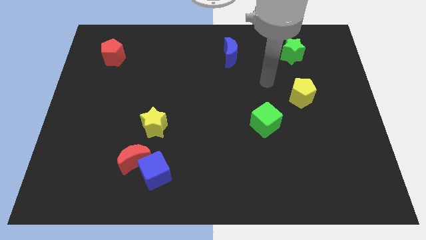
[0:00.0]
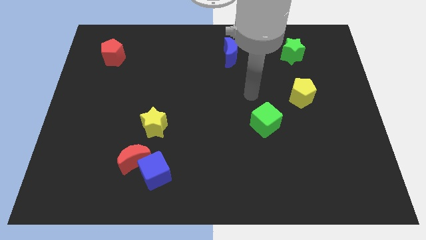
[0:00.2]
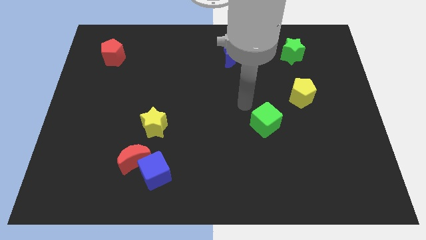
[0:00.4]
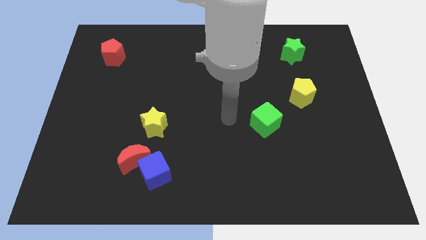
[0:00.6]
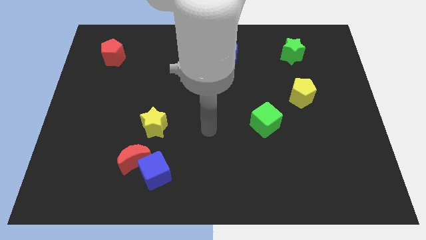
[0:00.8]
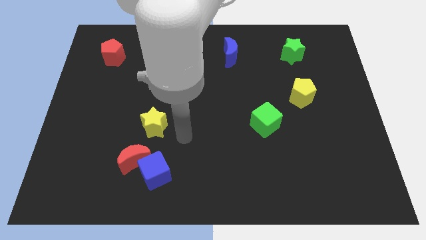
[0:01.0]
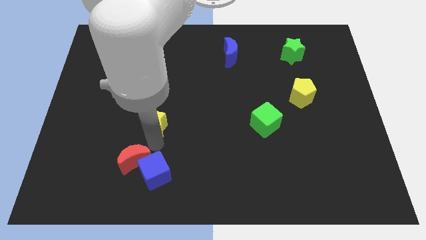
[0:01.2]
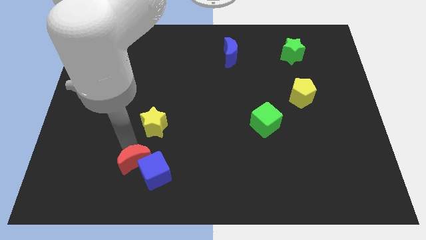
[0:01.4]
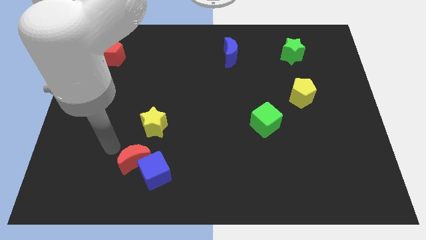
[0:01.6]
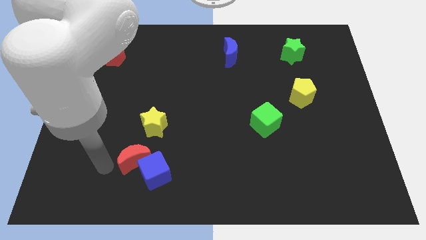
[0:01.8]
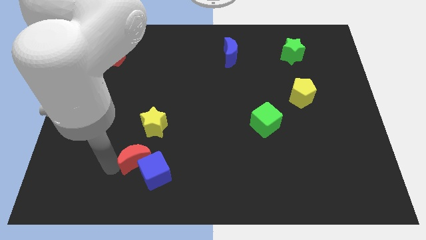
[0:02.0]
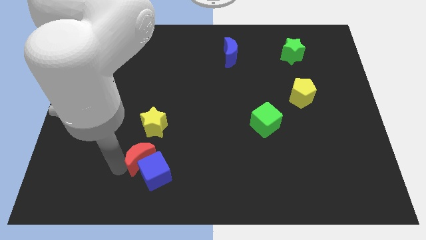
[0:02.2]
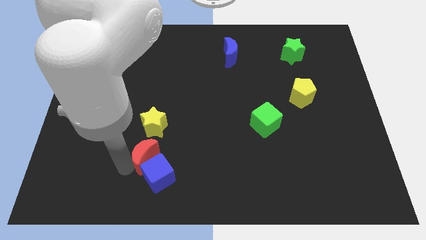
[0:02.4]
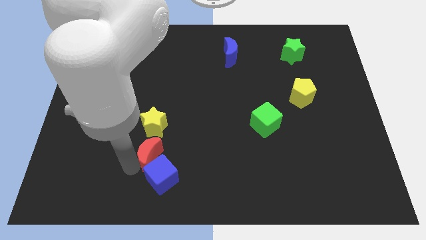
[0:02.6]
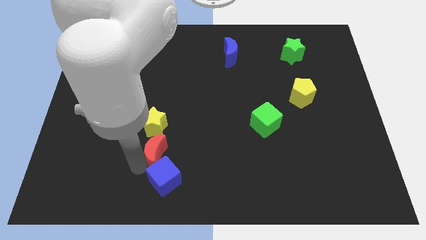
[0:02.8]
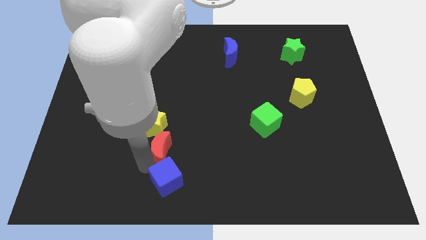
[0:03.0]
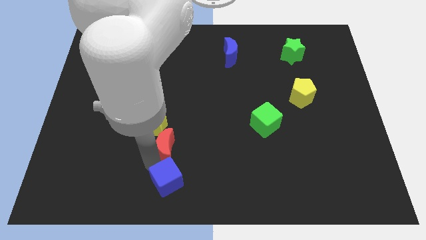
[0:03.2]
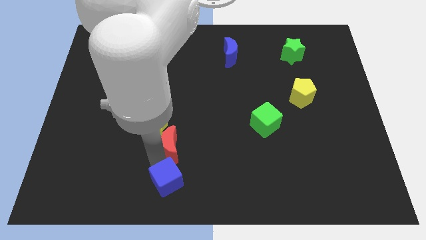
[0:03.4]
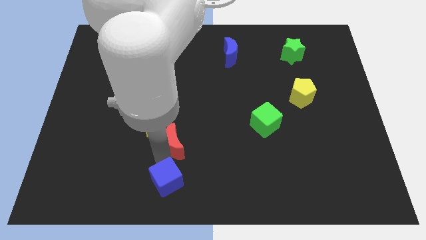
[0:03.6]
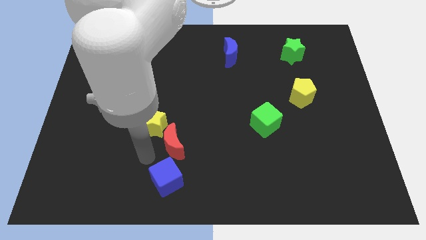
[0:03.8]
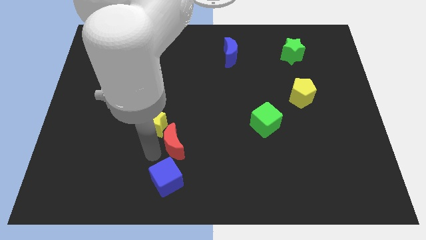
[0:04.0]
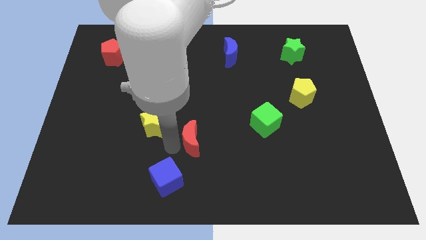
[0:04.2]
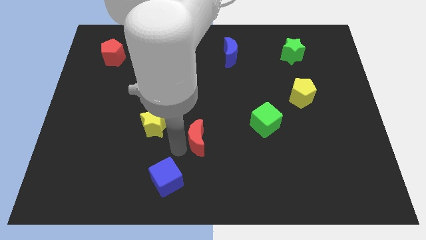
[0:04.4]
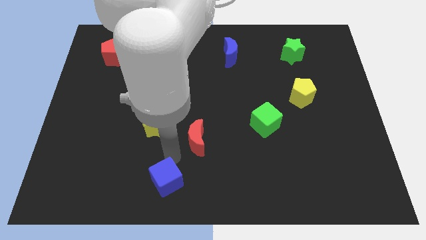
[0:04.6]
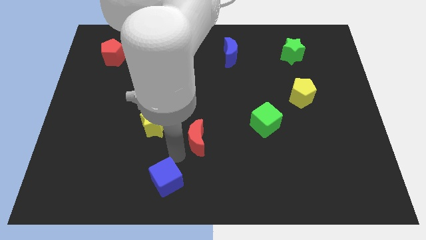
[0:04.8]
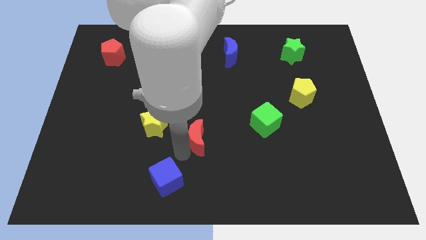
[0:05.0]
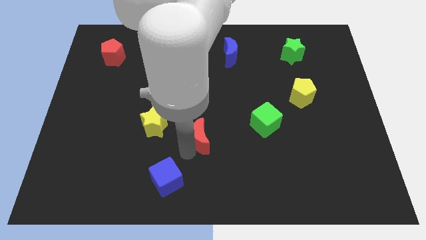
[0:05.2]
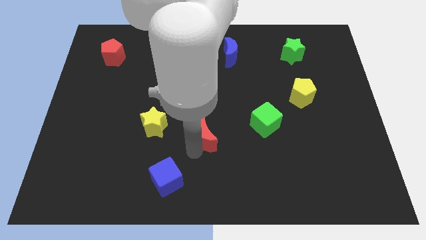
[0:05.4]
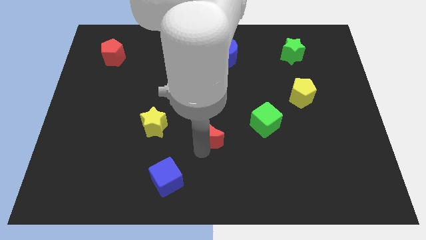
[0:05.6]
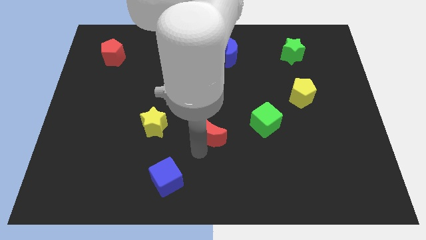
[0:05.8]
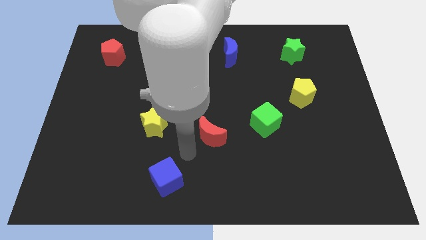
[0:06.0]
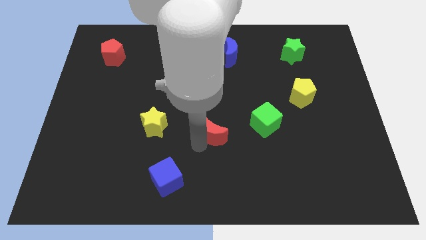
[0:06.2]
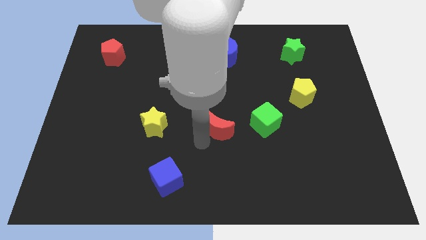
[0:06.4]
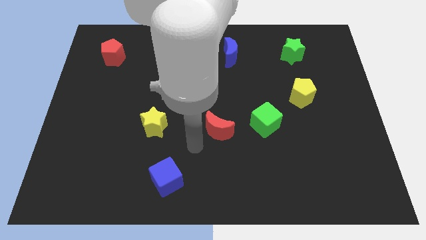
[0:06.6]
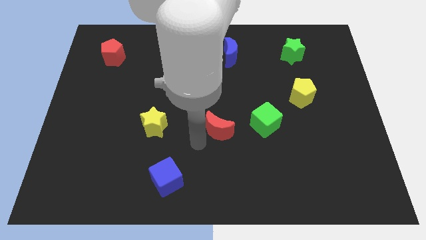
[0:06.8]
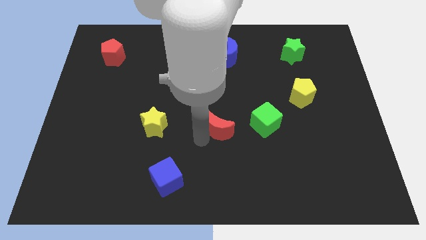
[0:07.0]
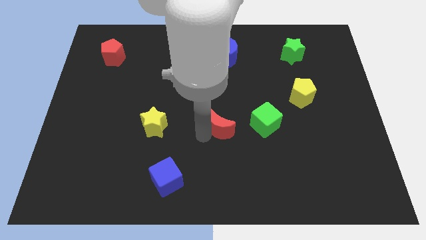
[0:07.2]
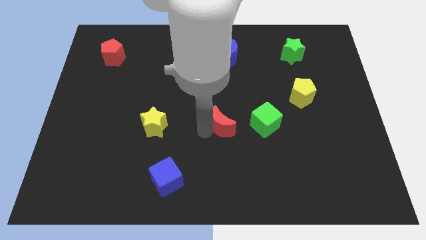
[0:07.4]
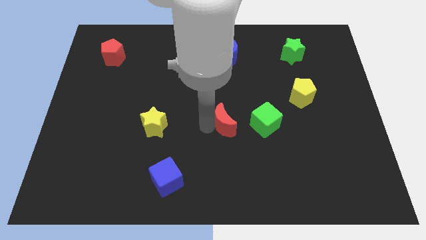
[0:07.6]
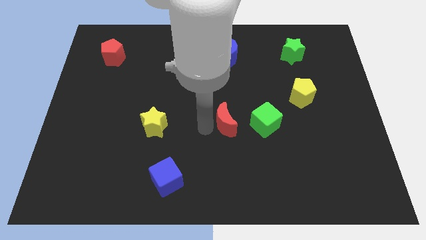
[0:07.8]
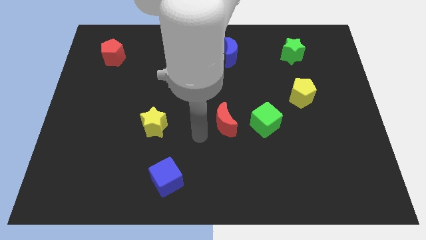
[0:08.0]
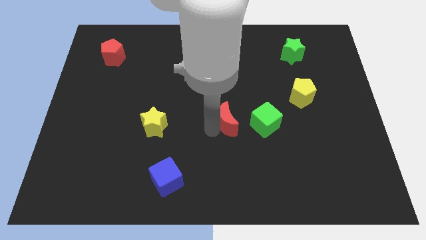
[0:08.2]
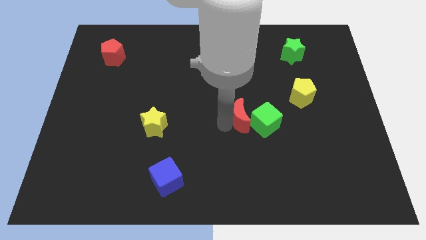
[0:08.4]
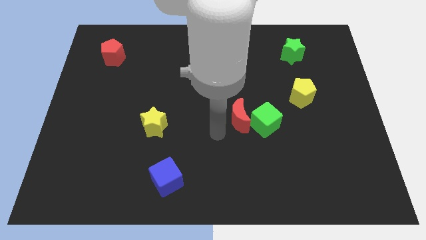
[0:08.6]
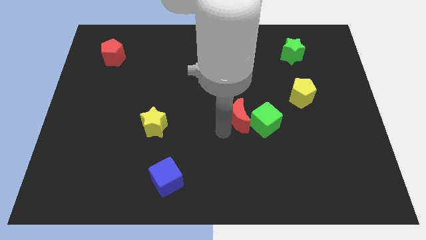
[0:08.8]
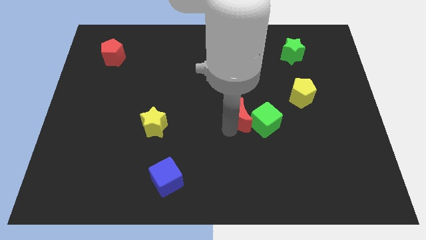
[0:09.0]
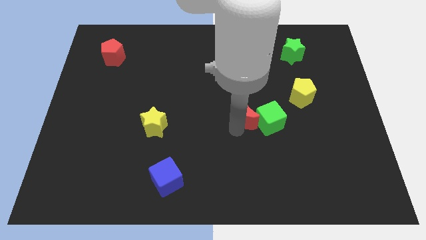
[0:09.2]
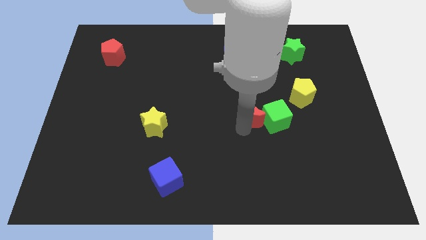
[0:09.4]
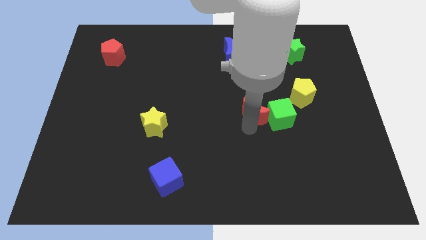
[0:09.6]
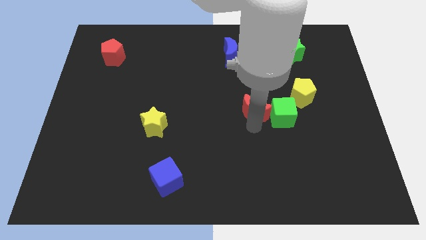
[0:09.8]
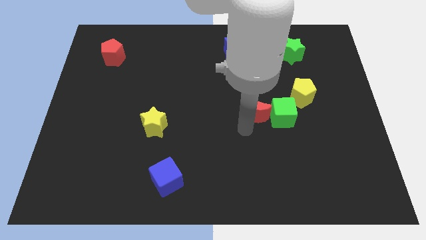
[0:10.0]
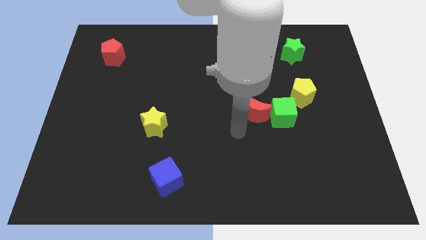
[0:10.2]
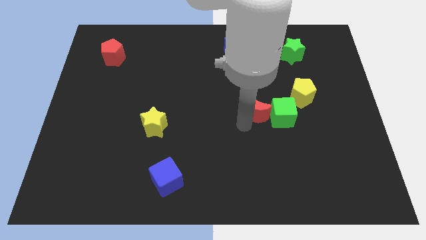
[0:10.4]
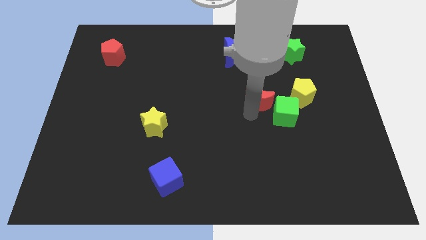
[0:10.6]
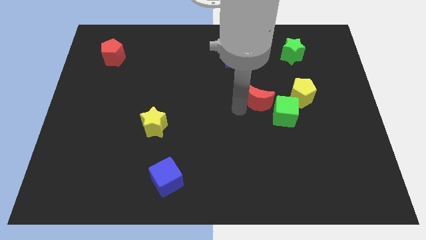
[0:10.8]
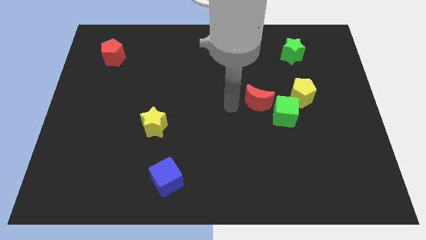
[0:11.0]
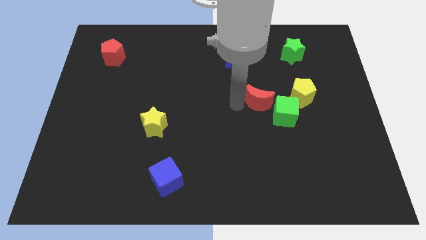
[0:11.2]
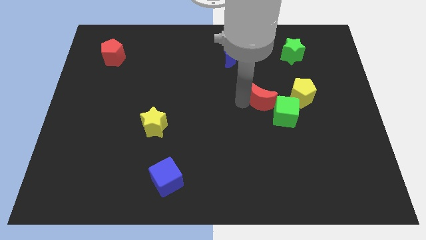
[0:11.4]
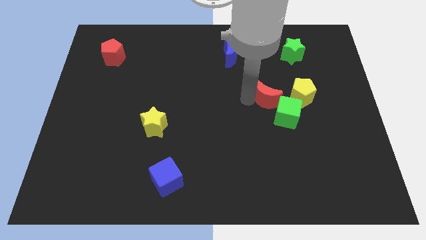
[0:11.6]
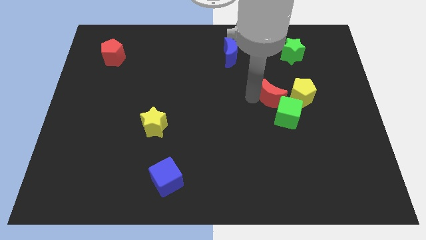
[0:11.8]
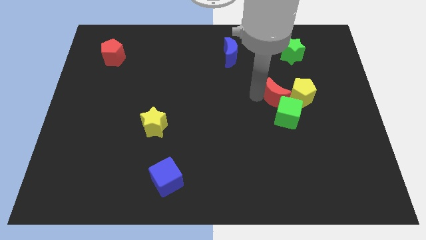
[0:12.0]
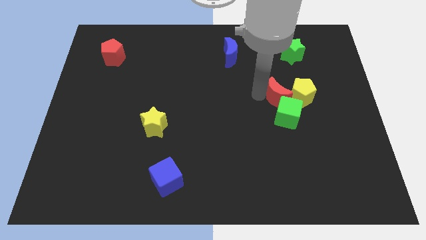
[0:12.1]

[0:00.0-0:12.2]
put the red moon to the yellow pentagon

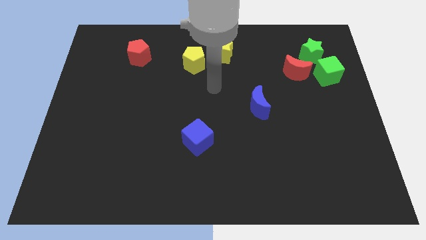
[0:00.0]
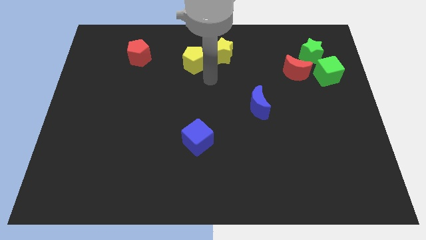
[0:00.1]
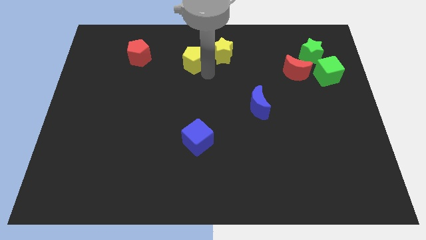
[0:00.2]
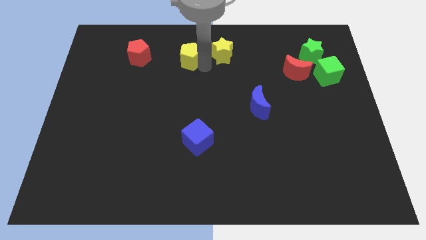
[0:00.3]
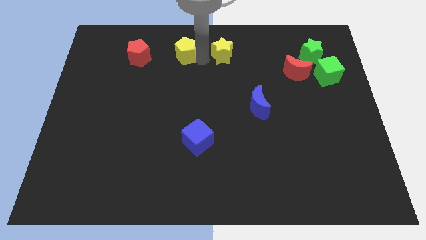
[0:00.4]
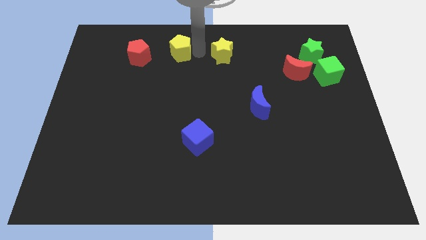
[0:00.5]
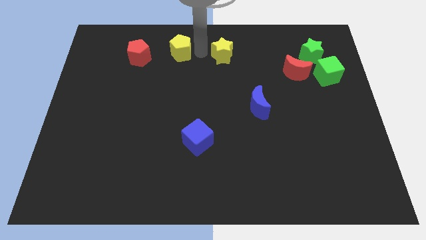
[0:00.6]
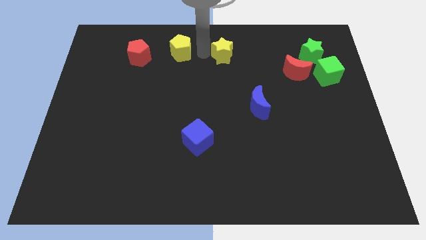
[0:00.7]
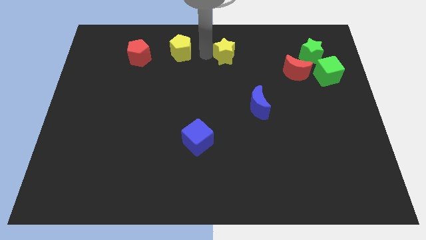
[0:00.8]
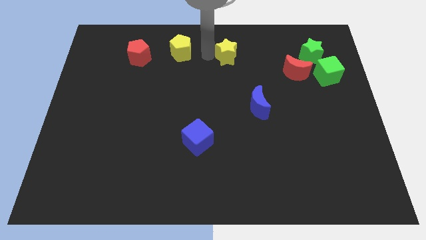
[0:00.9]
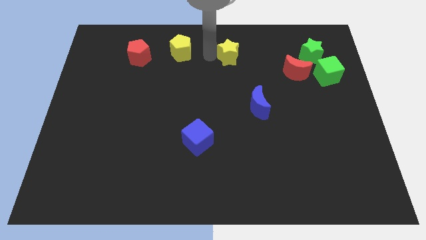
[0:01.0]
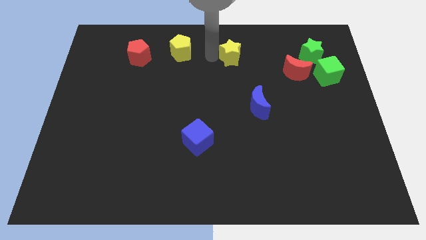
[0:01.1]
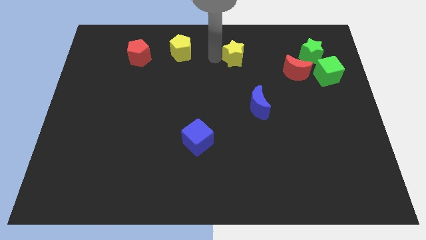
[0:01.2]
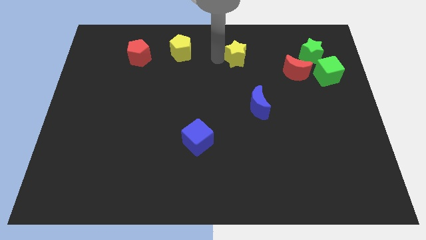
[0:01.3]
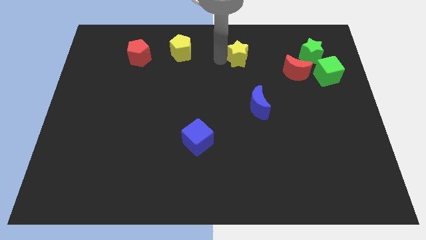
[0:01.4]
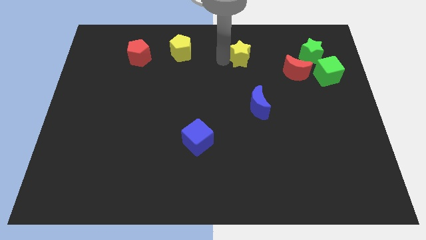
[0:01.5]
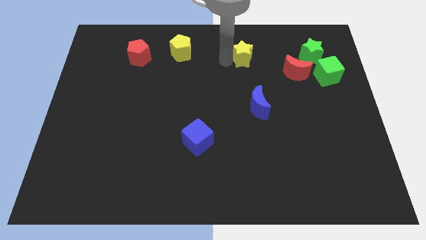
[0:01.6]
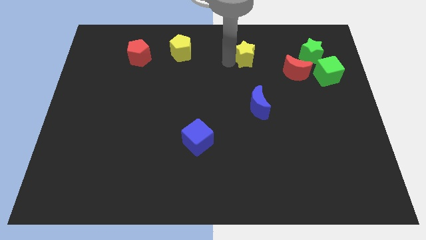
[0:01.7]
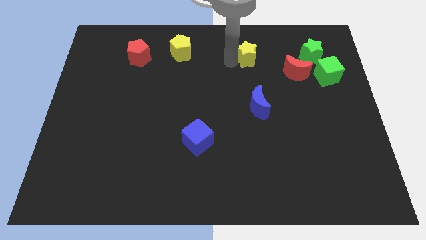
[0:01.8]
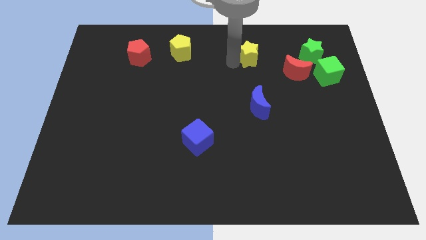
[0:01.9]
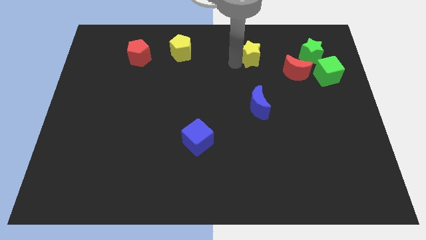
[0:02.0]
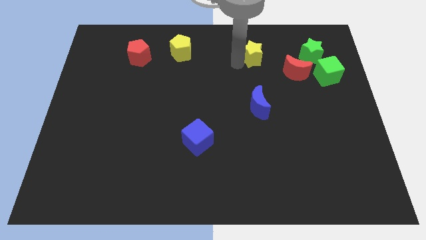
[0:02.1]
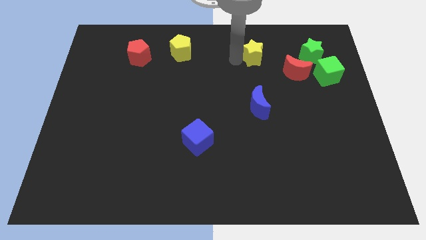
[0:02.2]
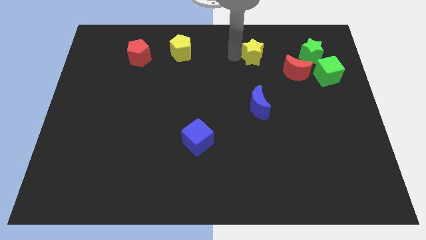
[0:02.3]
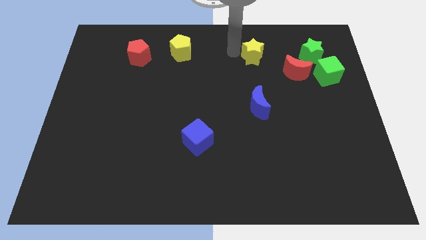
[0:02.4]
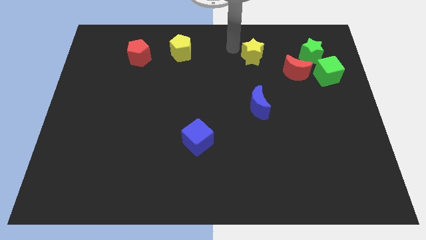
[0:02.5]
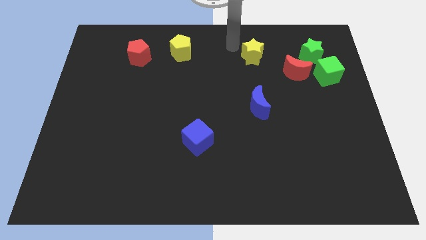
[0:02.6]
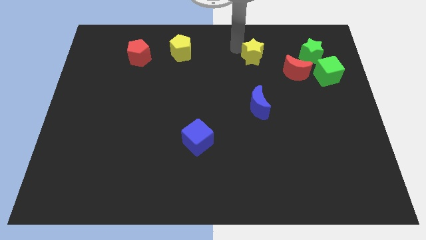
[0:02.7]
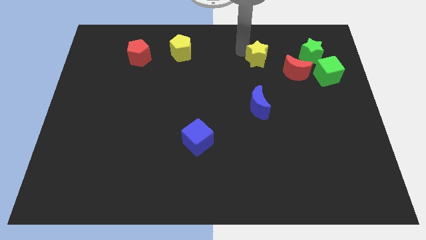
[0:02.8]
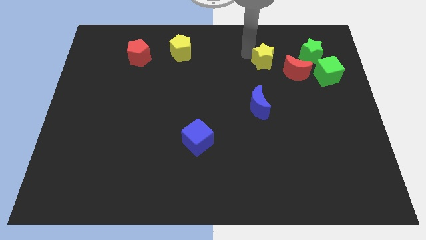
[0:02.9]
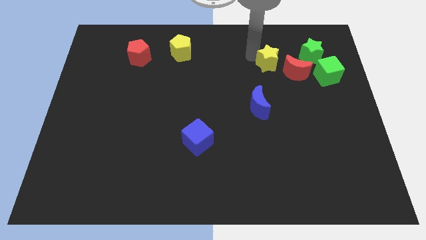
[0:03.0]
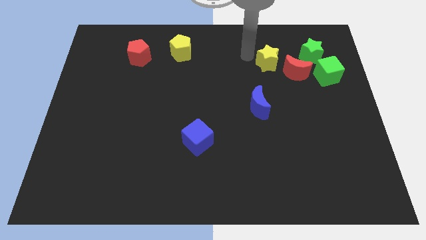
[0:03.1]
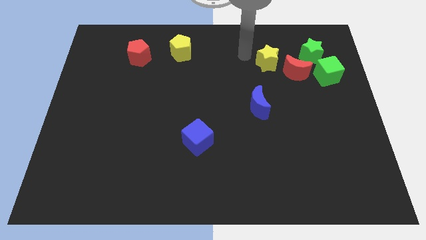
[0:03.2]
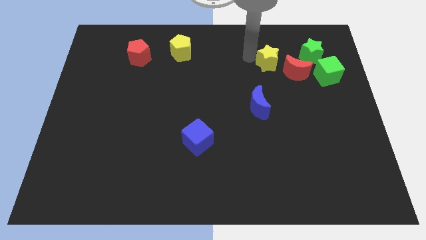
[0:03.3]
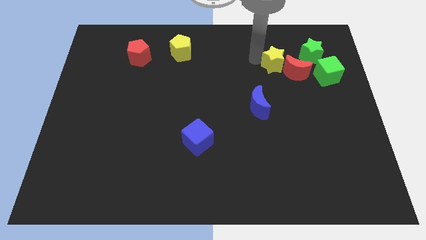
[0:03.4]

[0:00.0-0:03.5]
slide the yellow star towards the red moon
